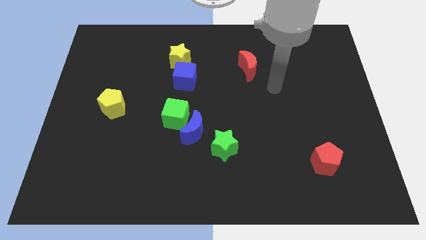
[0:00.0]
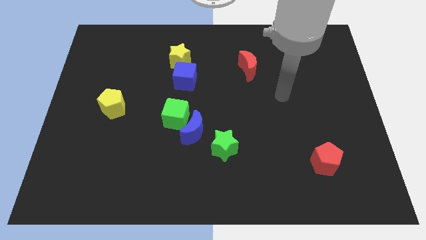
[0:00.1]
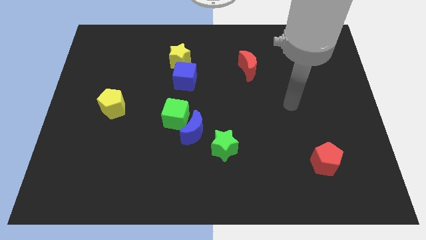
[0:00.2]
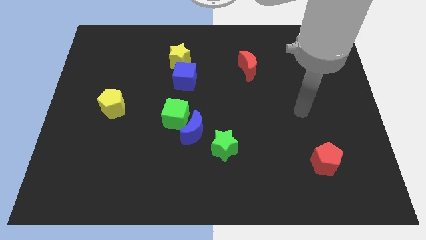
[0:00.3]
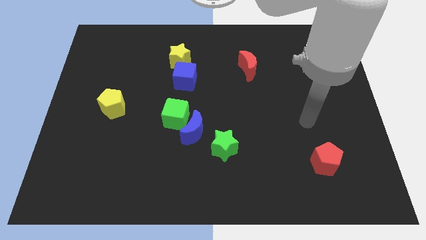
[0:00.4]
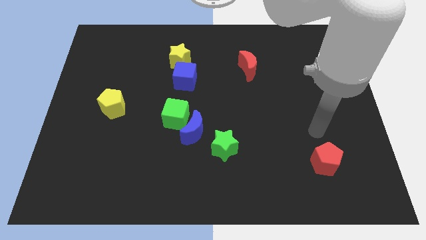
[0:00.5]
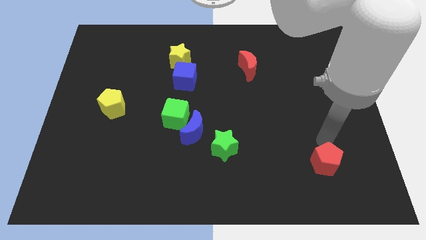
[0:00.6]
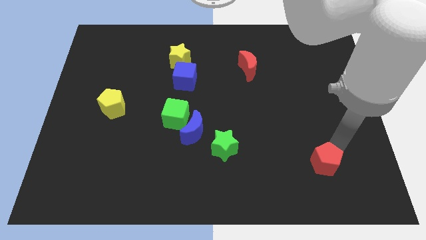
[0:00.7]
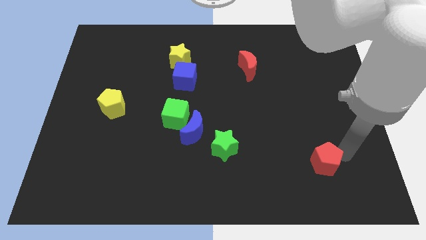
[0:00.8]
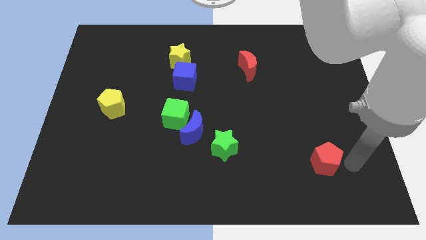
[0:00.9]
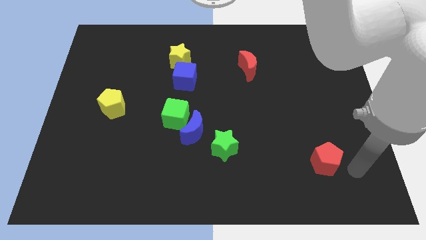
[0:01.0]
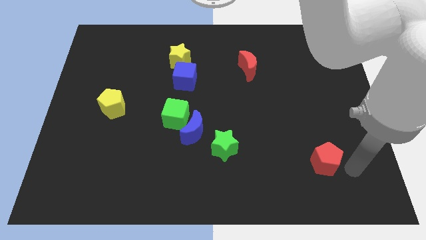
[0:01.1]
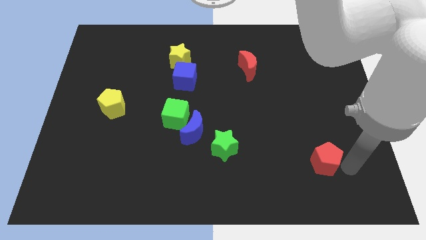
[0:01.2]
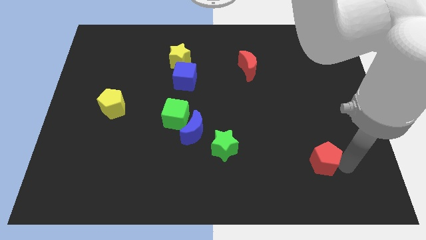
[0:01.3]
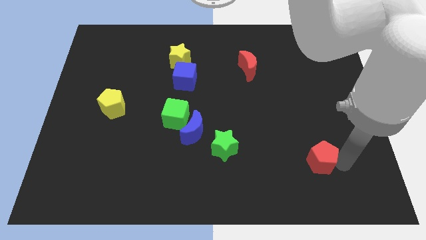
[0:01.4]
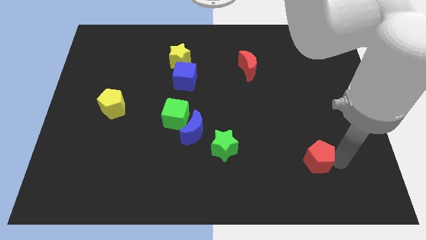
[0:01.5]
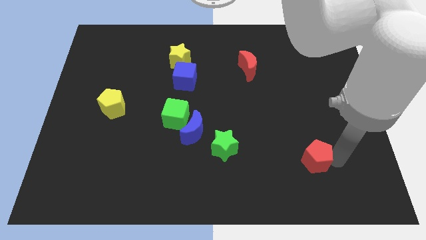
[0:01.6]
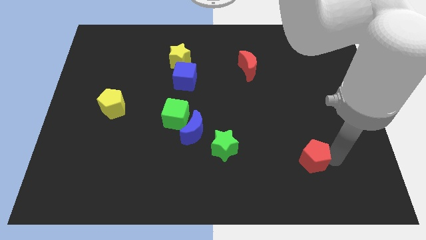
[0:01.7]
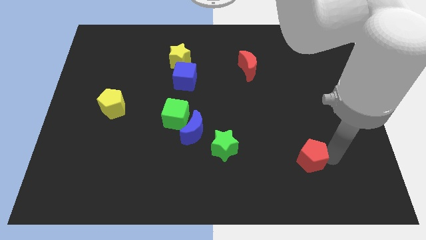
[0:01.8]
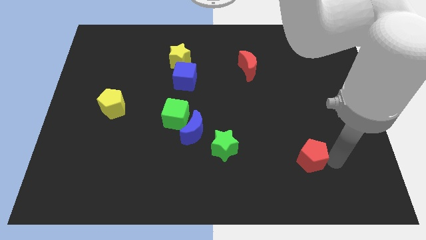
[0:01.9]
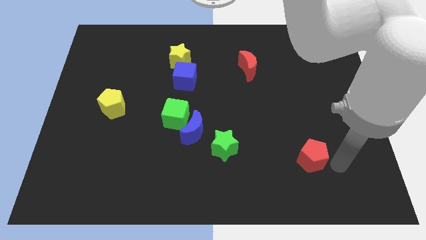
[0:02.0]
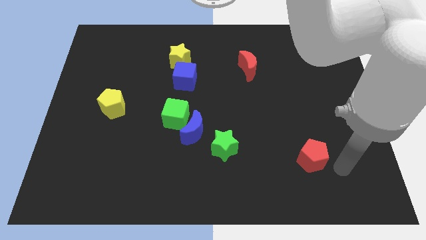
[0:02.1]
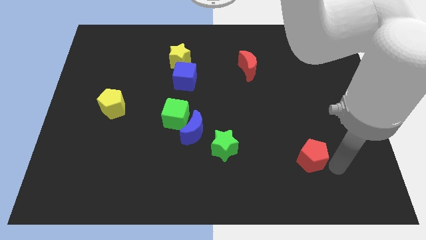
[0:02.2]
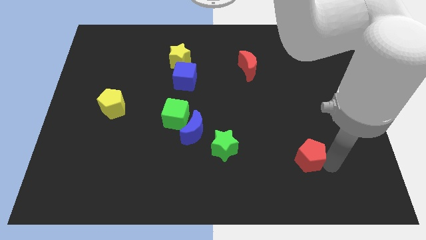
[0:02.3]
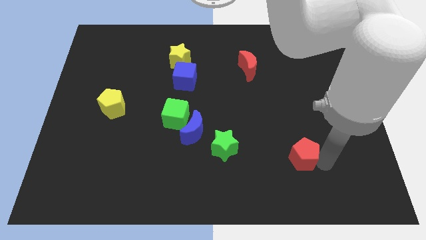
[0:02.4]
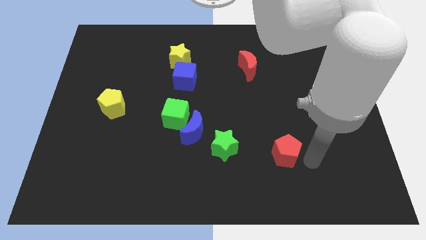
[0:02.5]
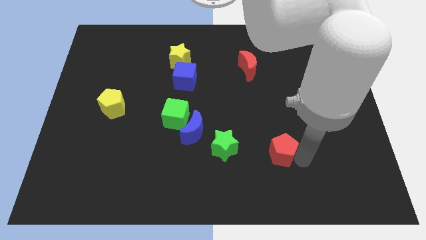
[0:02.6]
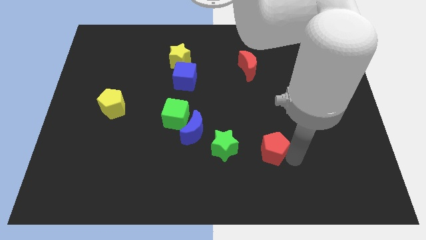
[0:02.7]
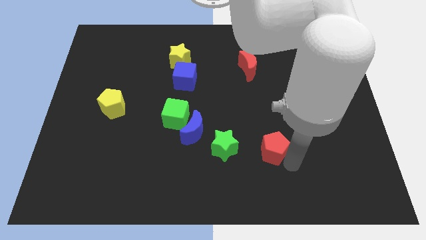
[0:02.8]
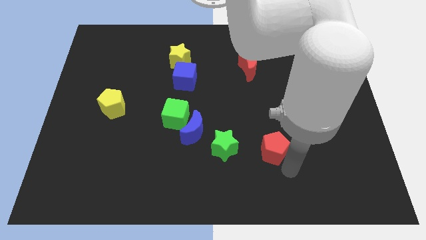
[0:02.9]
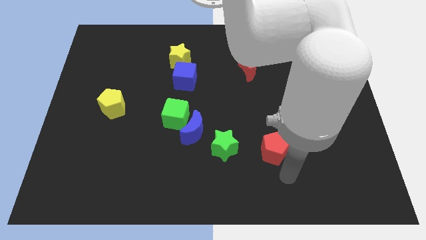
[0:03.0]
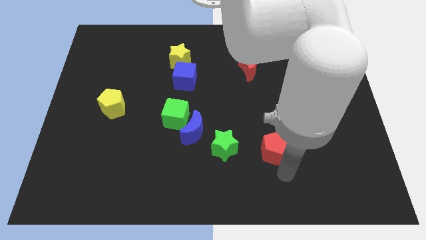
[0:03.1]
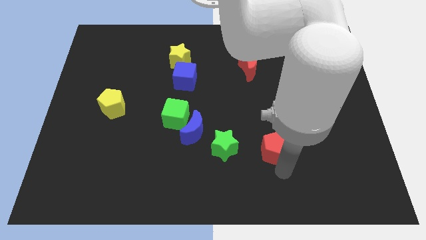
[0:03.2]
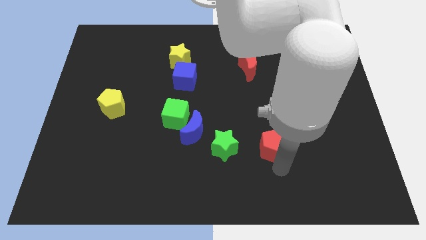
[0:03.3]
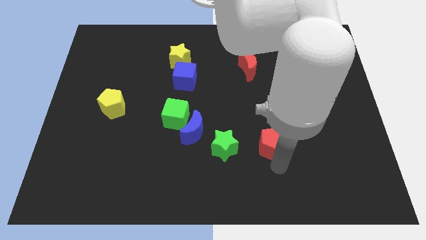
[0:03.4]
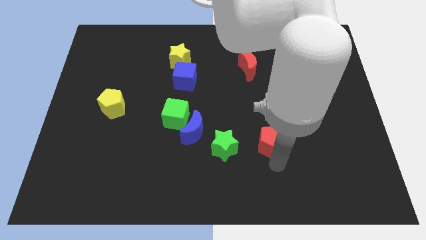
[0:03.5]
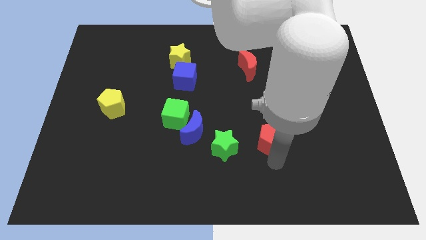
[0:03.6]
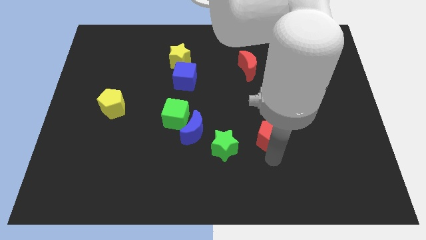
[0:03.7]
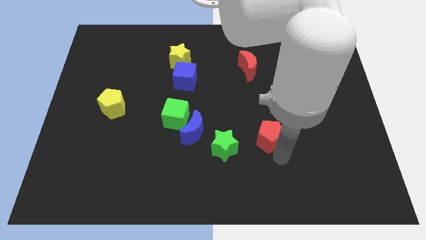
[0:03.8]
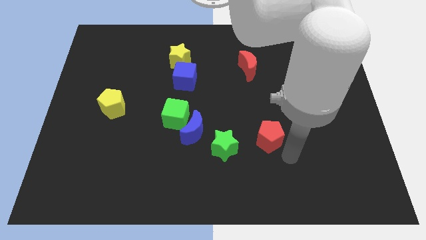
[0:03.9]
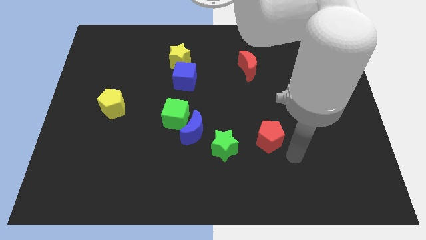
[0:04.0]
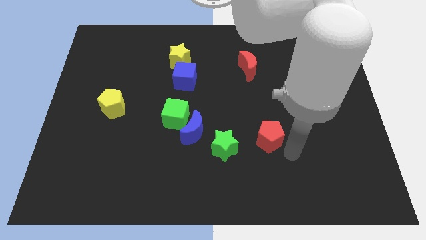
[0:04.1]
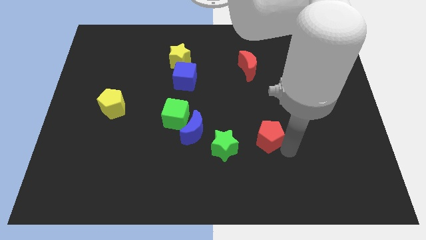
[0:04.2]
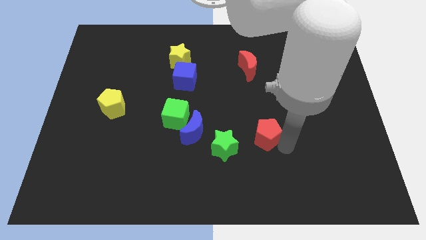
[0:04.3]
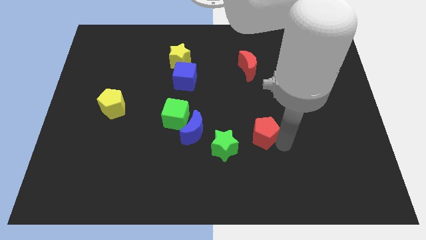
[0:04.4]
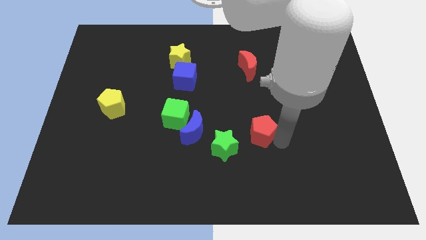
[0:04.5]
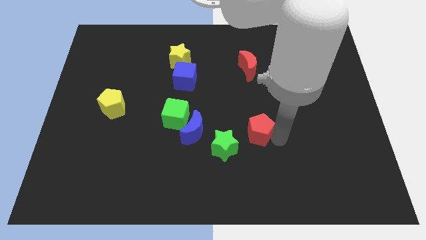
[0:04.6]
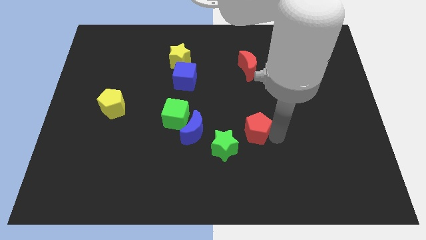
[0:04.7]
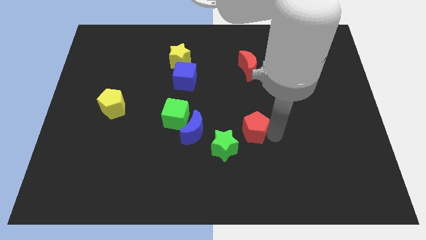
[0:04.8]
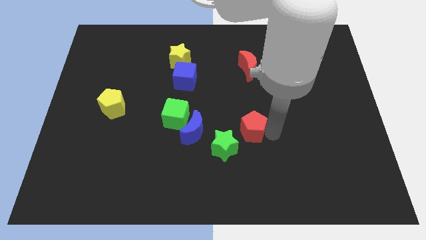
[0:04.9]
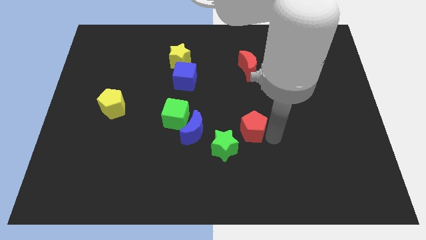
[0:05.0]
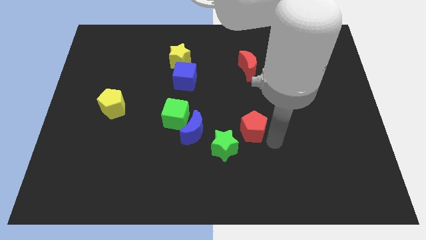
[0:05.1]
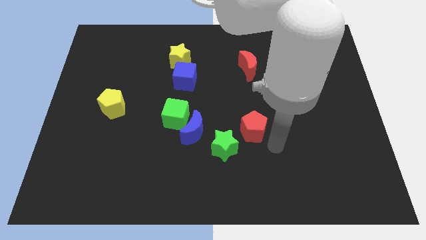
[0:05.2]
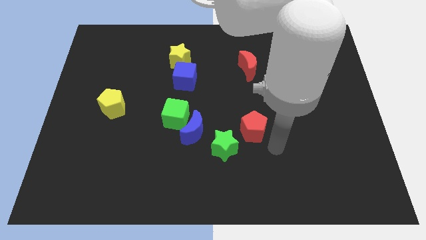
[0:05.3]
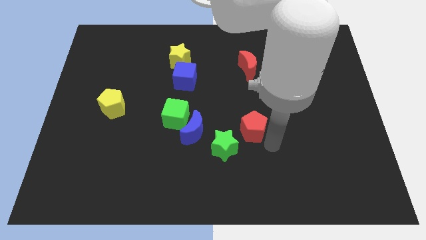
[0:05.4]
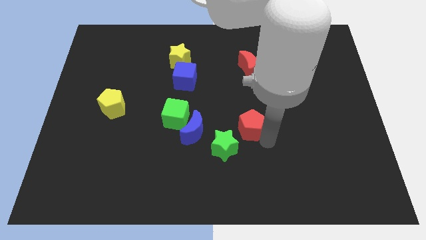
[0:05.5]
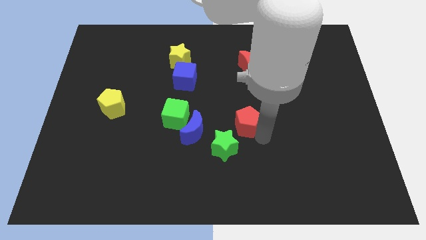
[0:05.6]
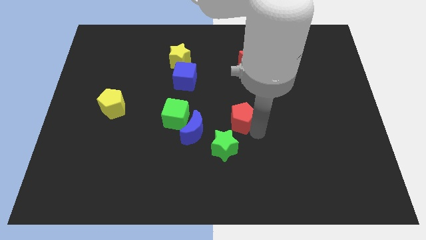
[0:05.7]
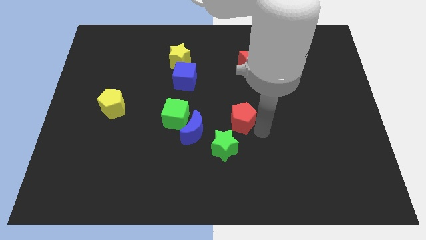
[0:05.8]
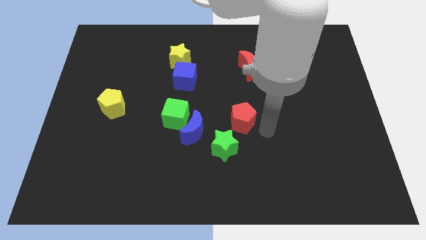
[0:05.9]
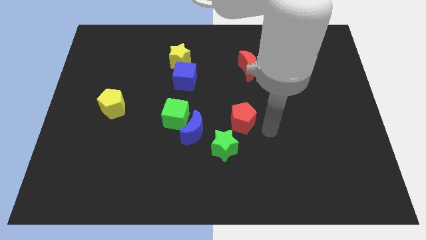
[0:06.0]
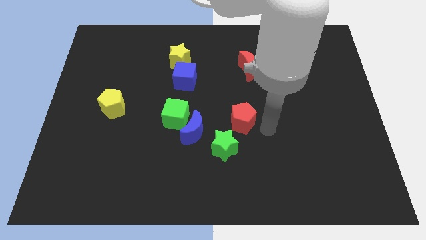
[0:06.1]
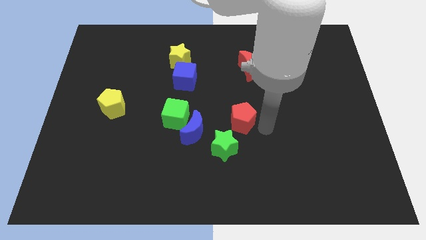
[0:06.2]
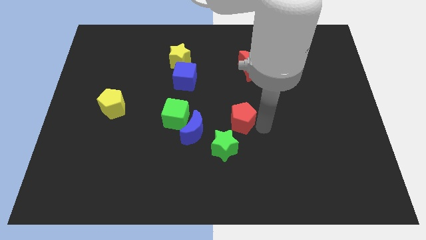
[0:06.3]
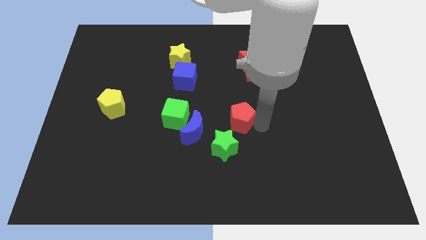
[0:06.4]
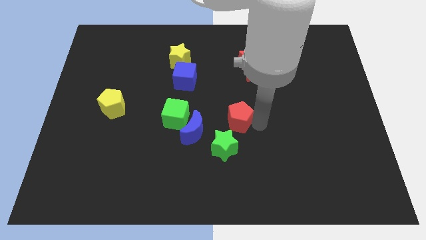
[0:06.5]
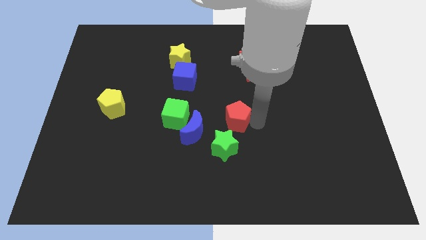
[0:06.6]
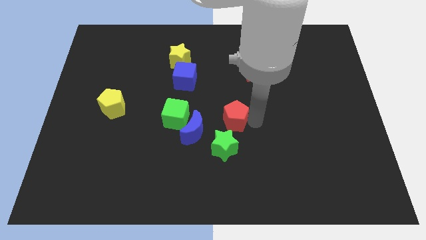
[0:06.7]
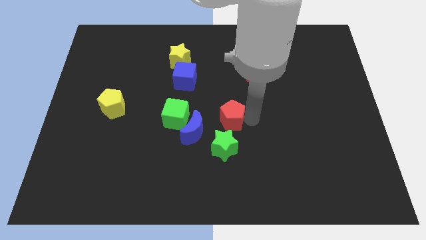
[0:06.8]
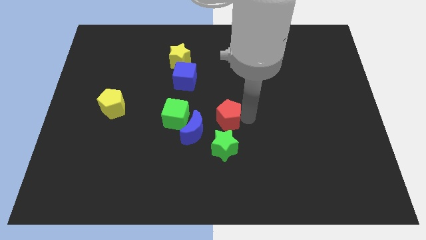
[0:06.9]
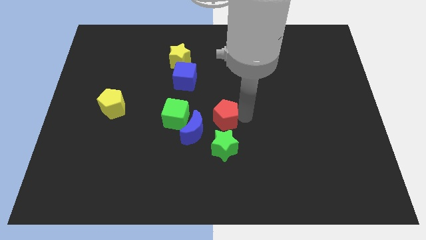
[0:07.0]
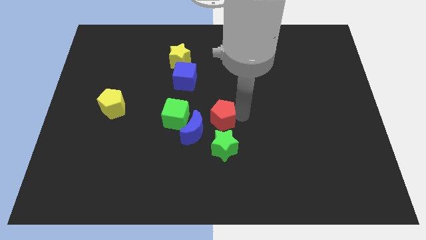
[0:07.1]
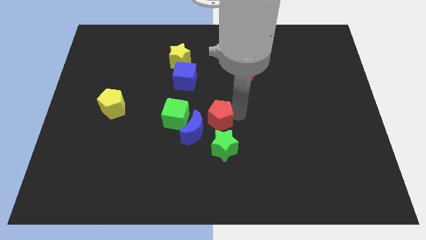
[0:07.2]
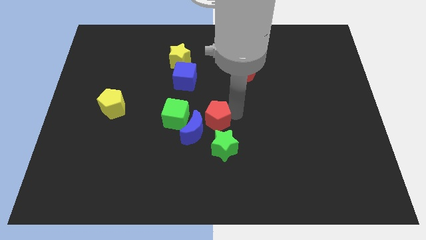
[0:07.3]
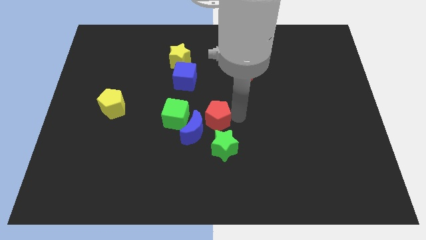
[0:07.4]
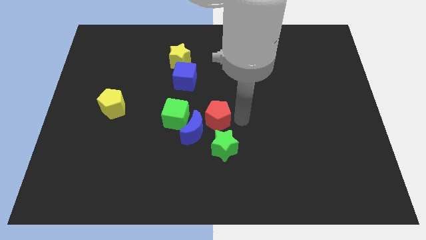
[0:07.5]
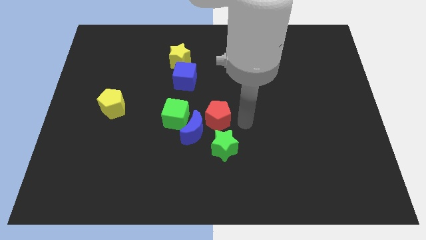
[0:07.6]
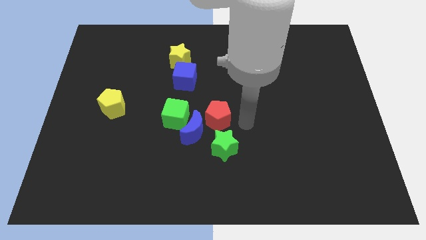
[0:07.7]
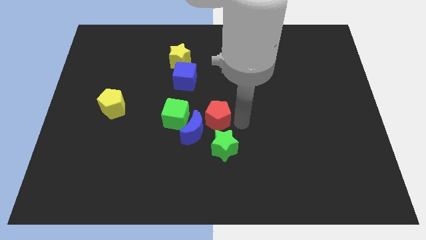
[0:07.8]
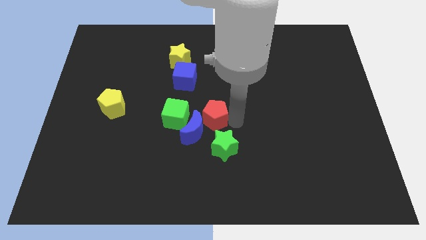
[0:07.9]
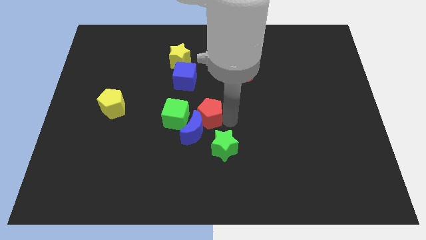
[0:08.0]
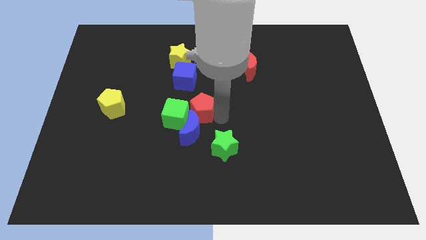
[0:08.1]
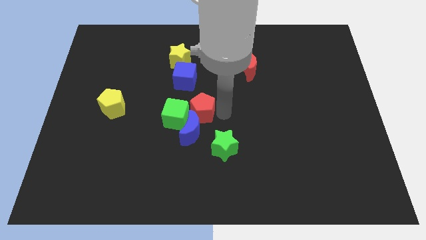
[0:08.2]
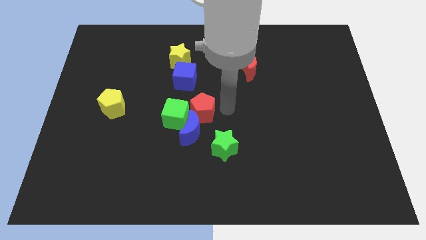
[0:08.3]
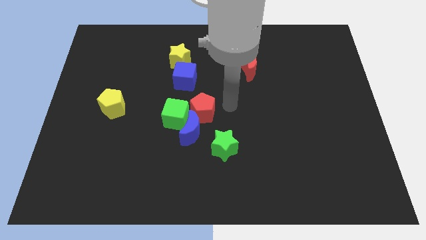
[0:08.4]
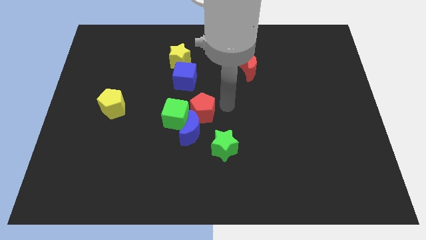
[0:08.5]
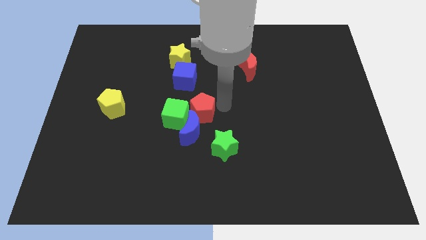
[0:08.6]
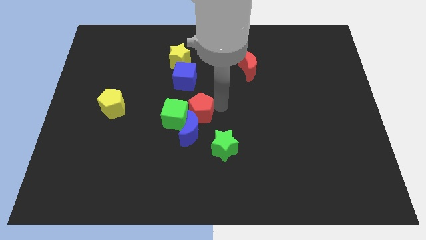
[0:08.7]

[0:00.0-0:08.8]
push the red pentagon next to the green cube
